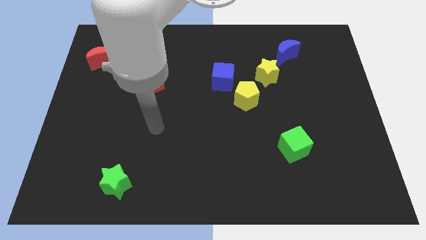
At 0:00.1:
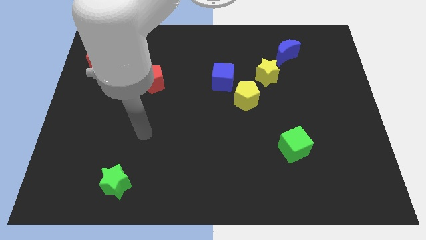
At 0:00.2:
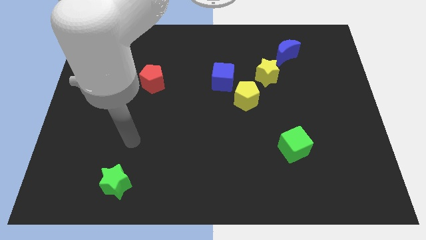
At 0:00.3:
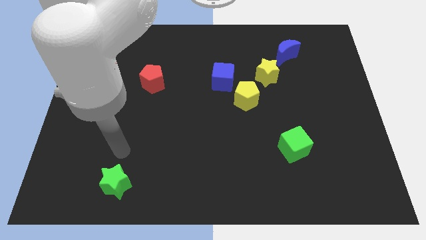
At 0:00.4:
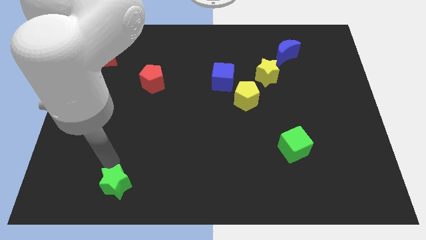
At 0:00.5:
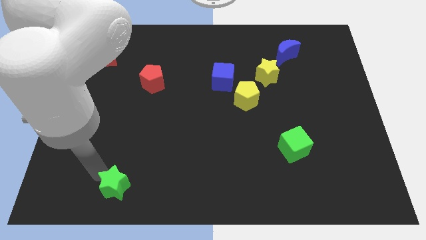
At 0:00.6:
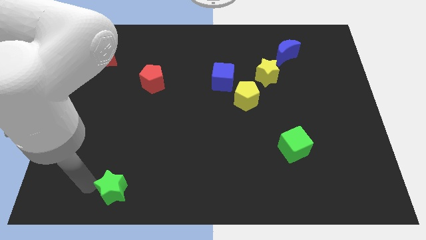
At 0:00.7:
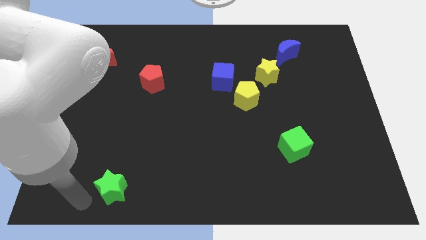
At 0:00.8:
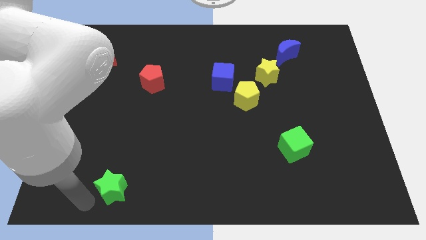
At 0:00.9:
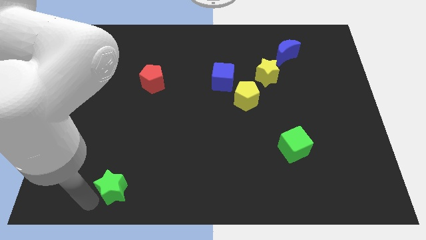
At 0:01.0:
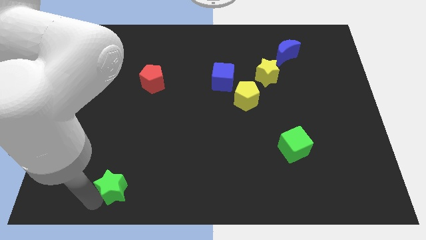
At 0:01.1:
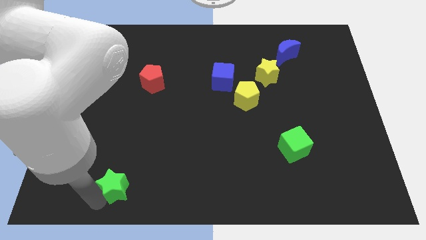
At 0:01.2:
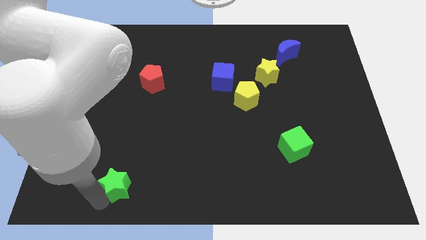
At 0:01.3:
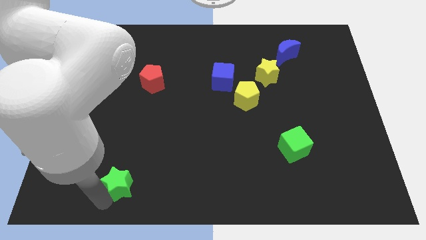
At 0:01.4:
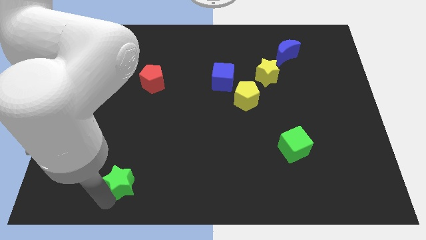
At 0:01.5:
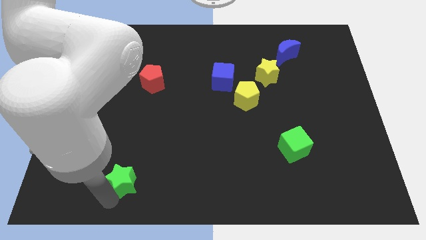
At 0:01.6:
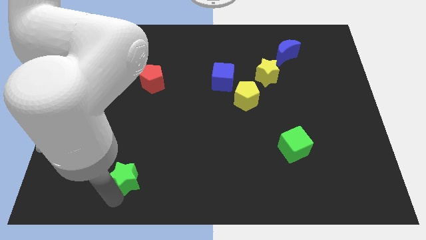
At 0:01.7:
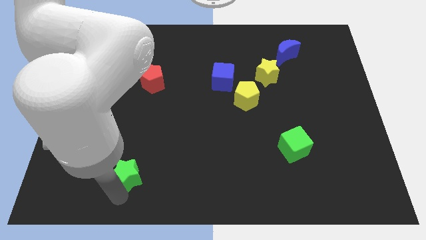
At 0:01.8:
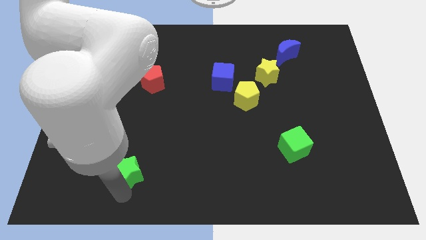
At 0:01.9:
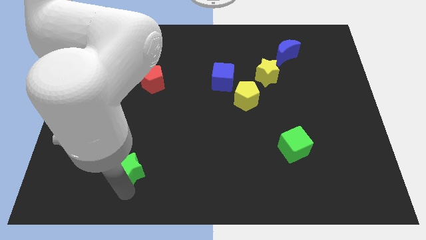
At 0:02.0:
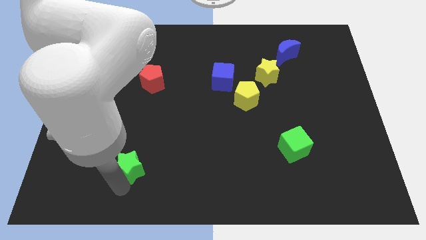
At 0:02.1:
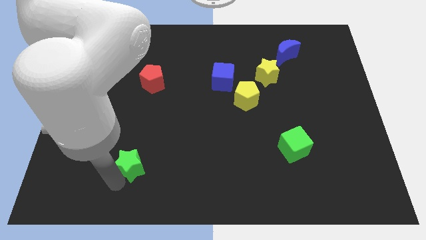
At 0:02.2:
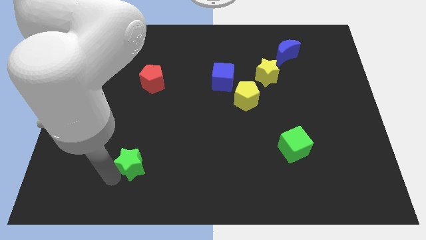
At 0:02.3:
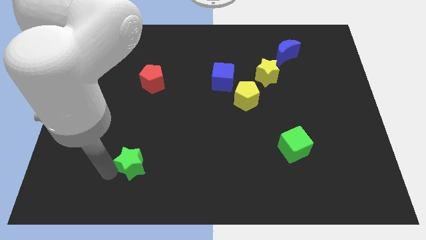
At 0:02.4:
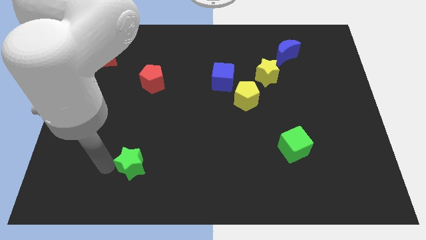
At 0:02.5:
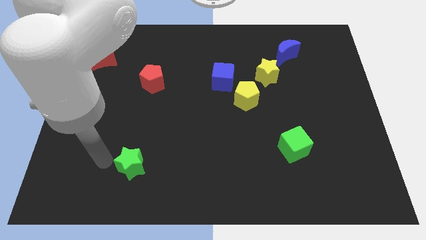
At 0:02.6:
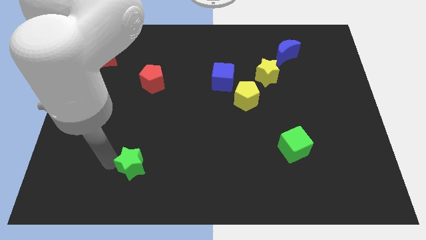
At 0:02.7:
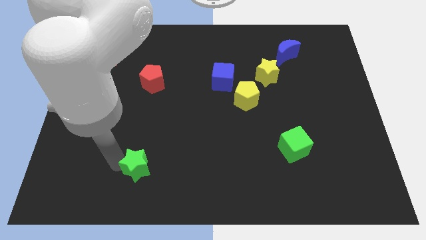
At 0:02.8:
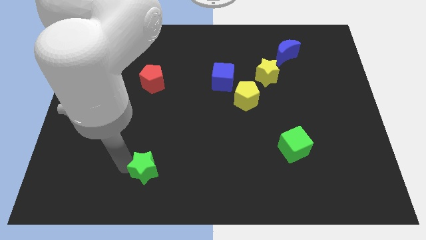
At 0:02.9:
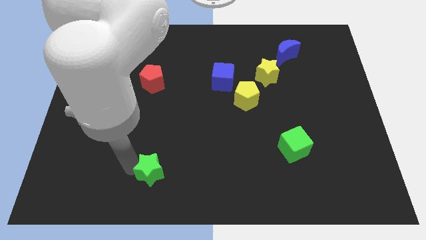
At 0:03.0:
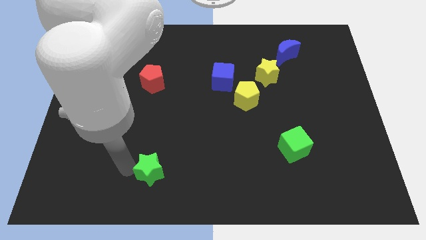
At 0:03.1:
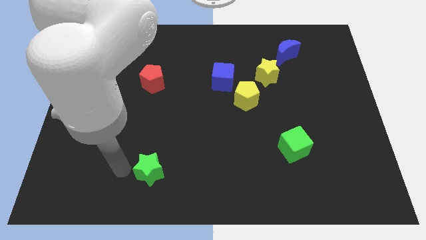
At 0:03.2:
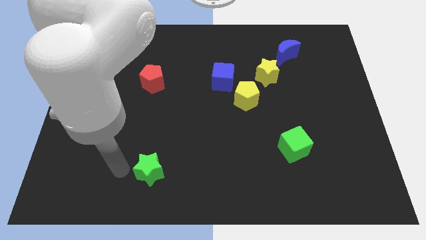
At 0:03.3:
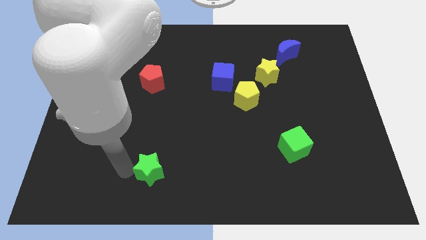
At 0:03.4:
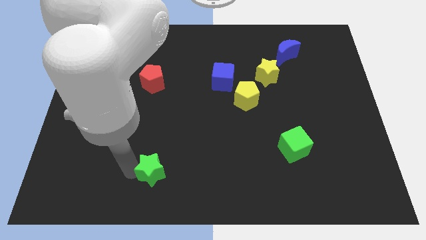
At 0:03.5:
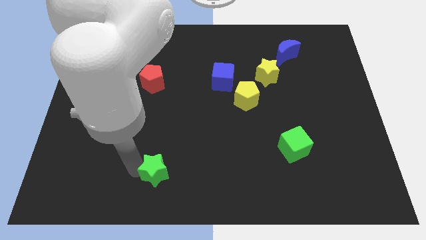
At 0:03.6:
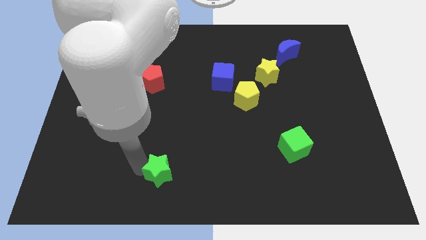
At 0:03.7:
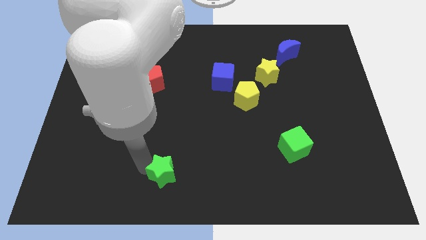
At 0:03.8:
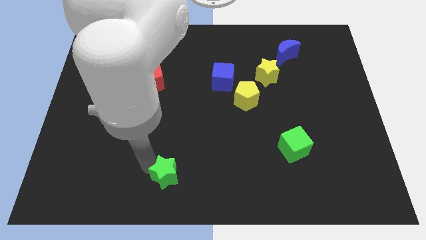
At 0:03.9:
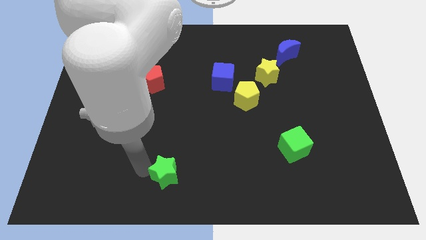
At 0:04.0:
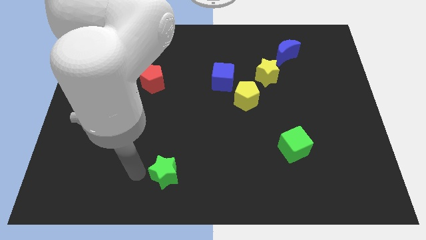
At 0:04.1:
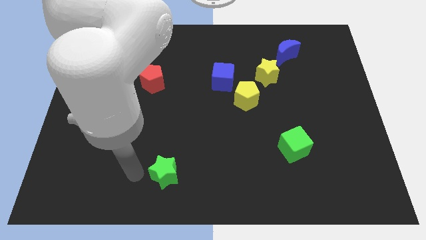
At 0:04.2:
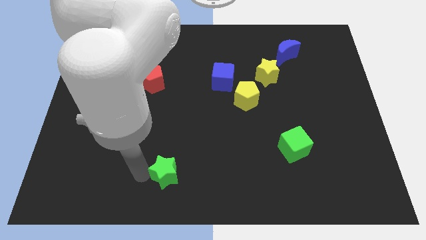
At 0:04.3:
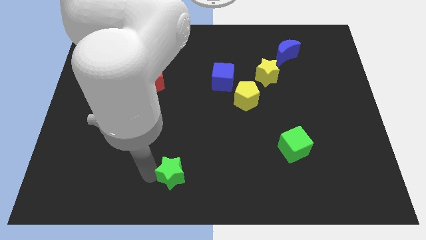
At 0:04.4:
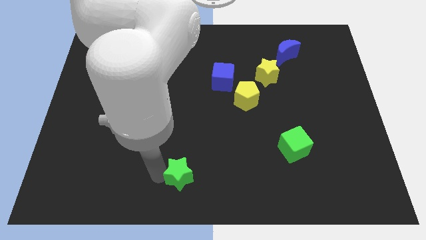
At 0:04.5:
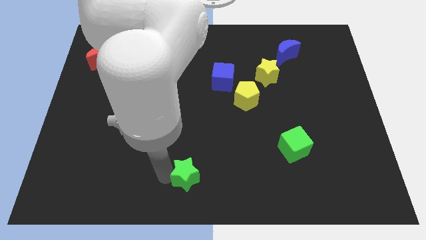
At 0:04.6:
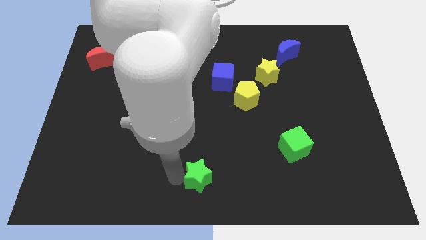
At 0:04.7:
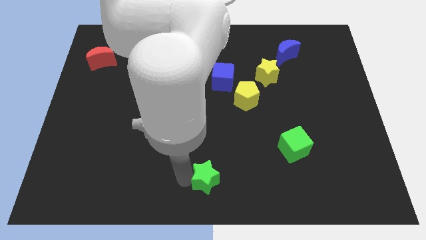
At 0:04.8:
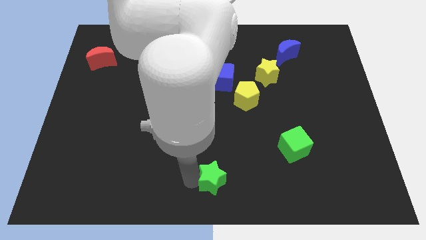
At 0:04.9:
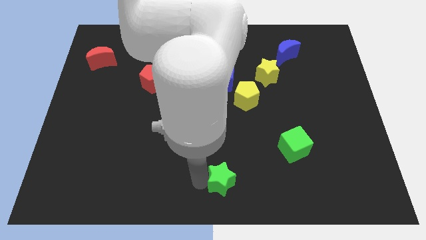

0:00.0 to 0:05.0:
move the green star to the right

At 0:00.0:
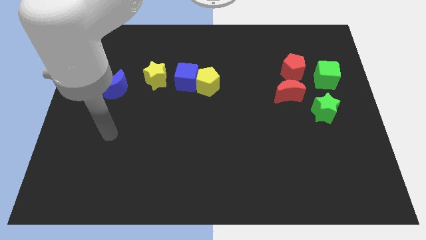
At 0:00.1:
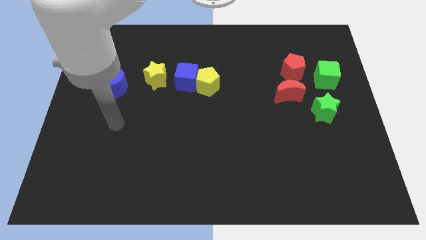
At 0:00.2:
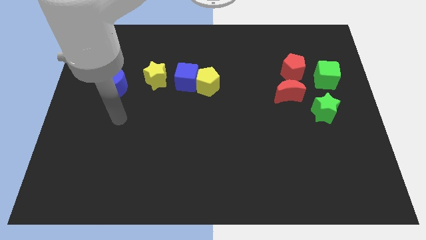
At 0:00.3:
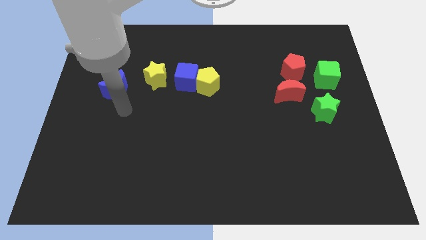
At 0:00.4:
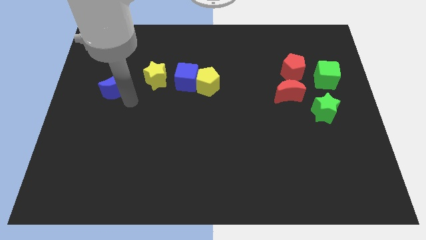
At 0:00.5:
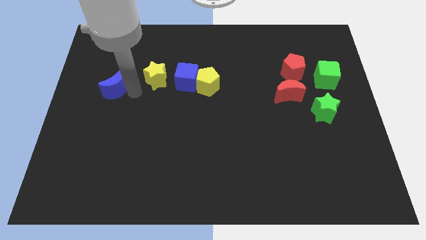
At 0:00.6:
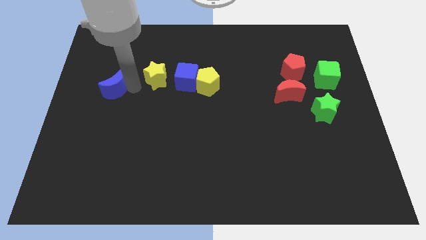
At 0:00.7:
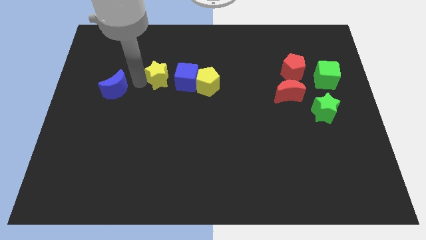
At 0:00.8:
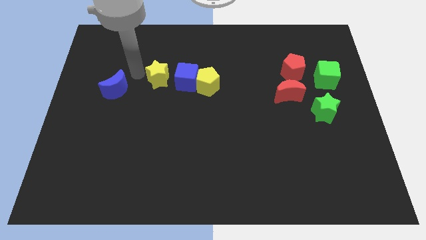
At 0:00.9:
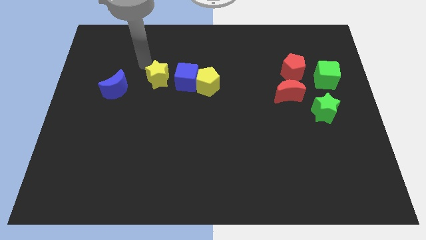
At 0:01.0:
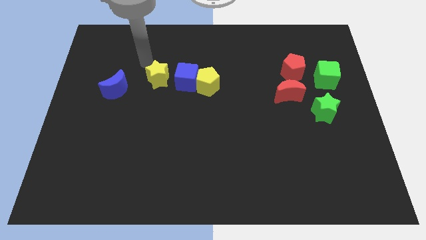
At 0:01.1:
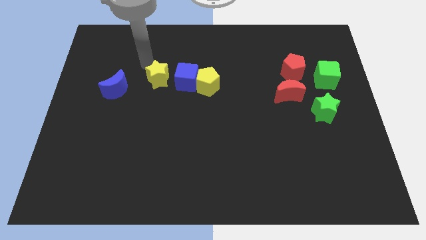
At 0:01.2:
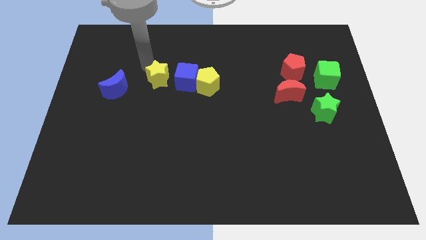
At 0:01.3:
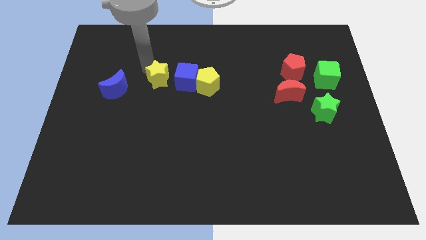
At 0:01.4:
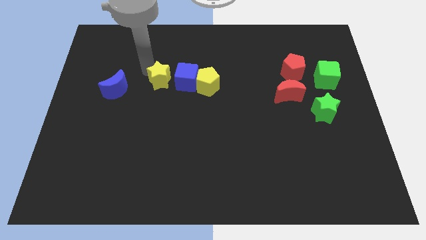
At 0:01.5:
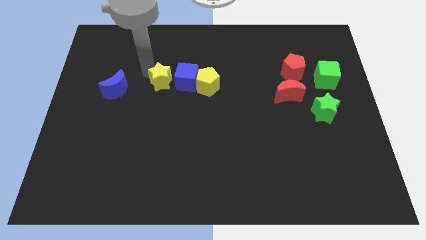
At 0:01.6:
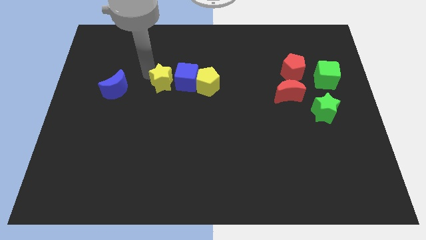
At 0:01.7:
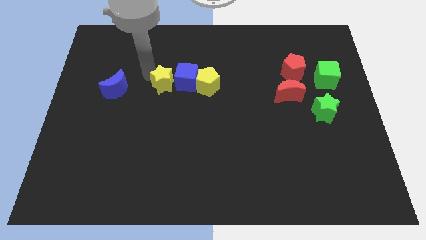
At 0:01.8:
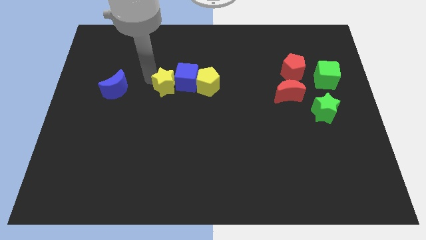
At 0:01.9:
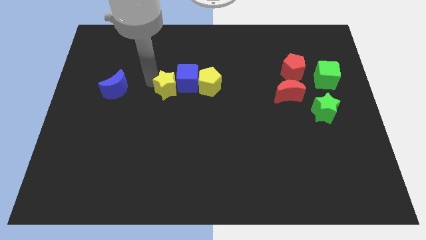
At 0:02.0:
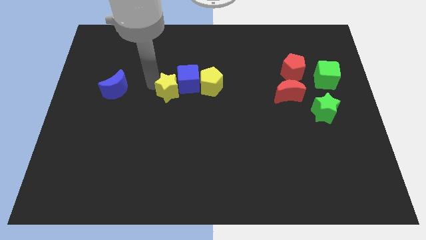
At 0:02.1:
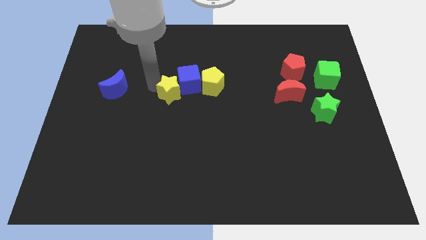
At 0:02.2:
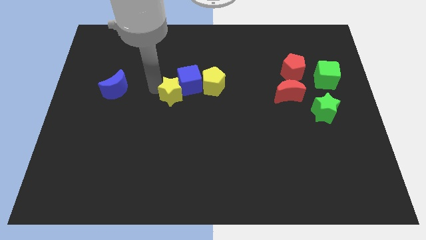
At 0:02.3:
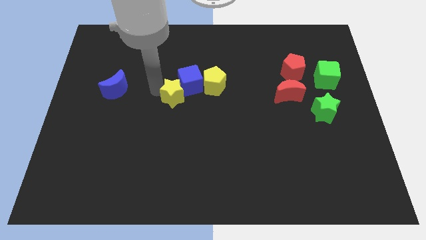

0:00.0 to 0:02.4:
push the yellow star downwards and right a little

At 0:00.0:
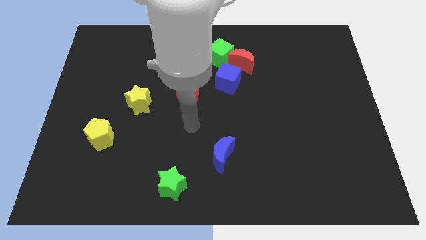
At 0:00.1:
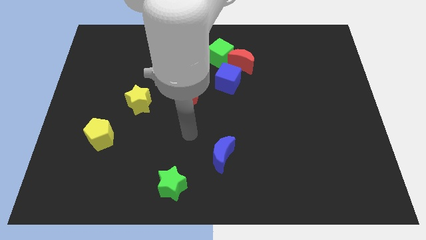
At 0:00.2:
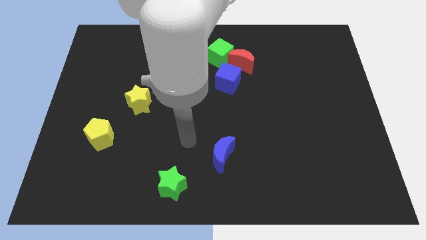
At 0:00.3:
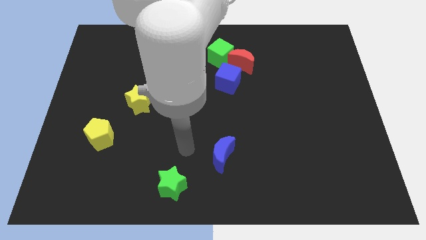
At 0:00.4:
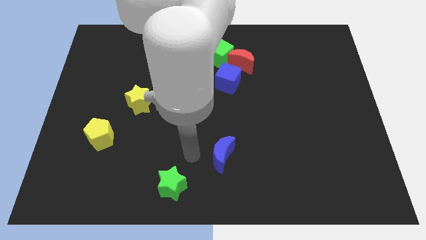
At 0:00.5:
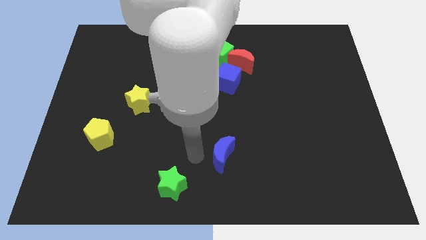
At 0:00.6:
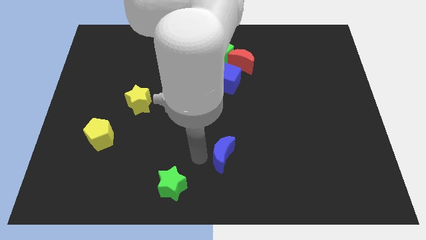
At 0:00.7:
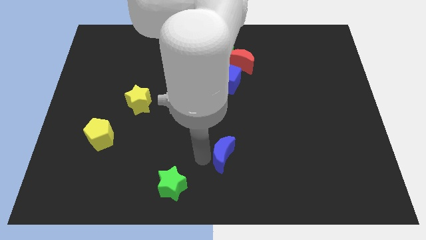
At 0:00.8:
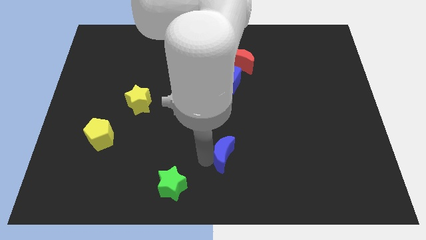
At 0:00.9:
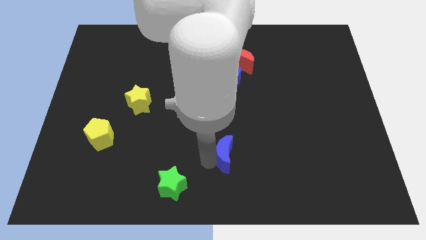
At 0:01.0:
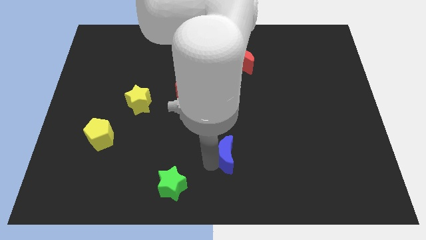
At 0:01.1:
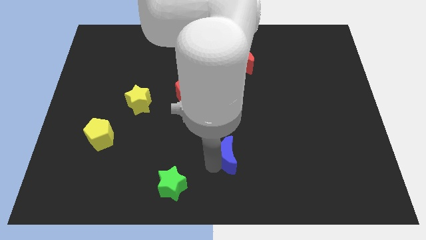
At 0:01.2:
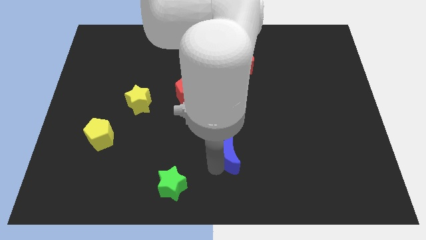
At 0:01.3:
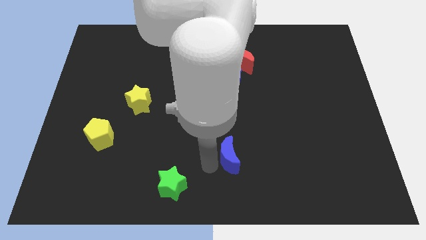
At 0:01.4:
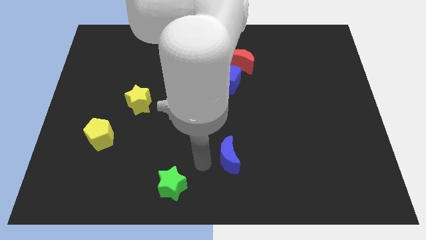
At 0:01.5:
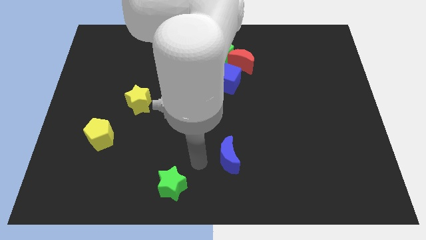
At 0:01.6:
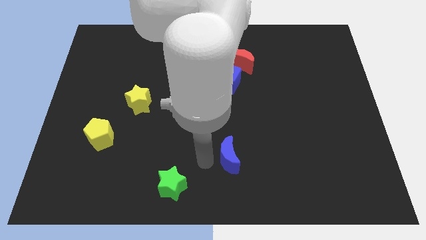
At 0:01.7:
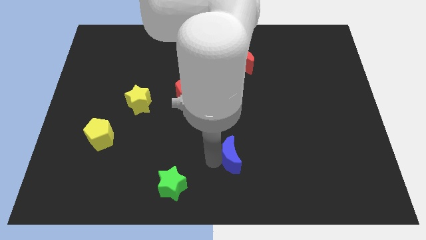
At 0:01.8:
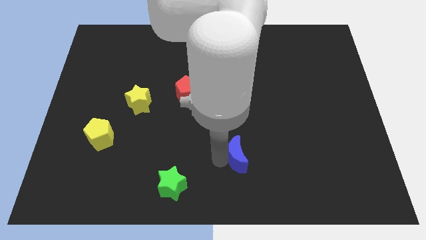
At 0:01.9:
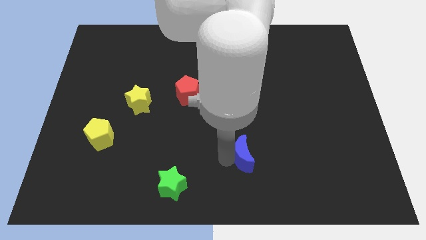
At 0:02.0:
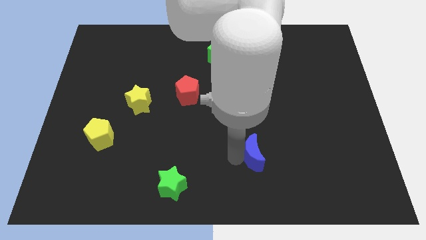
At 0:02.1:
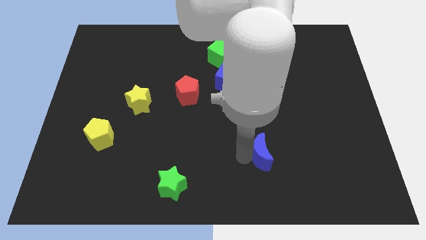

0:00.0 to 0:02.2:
move the blue moon to the right a bit
